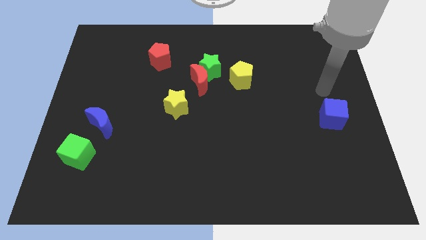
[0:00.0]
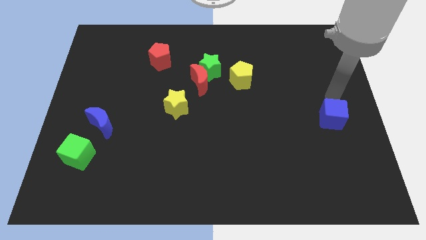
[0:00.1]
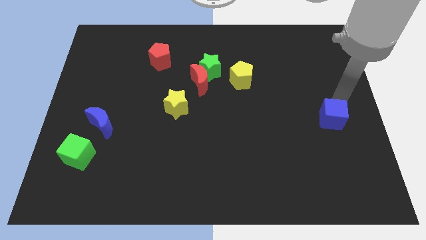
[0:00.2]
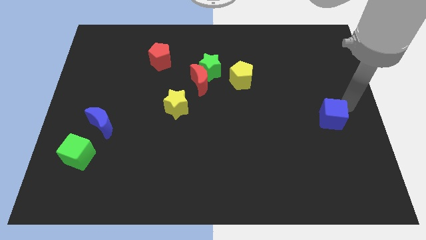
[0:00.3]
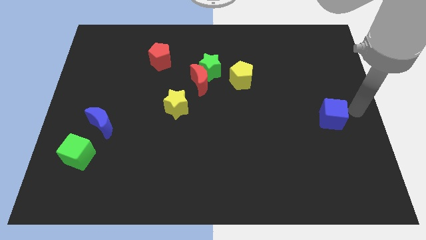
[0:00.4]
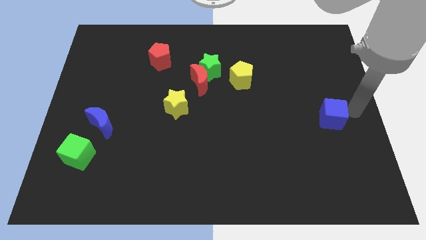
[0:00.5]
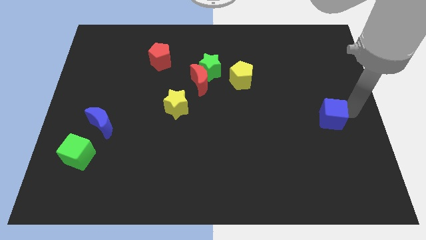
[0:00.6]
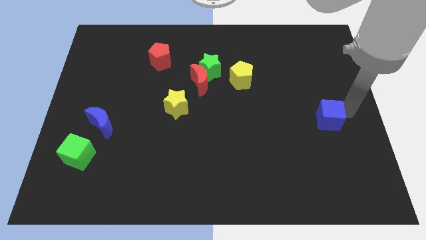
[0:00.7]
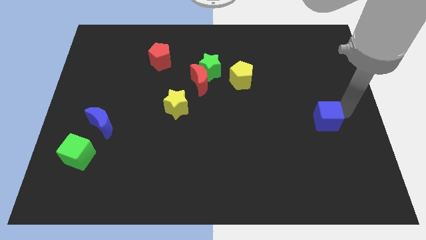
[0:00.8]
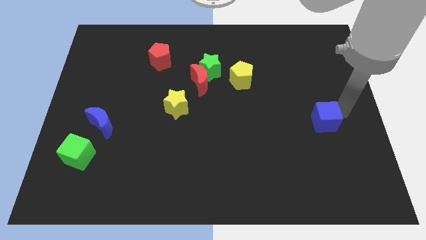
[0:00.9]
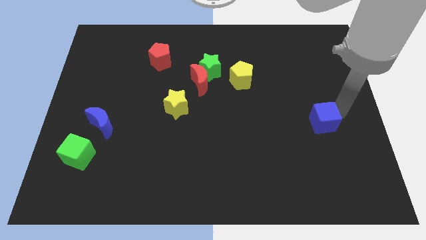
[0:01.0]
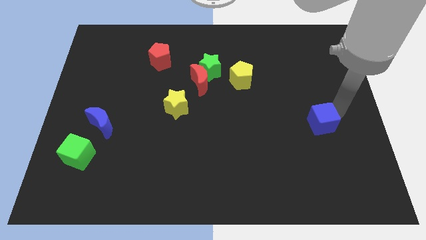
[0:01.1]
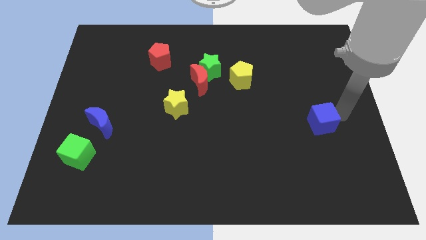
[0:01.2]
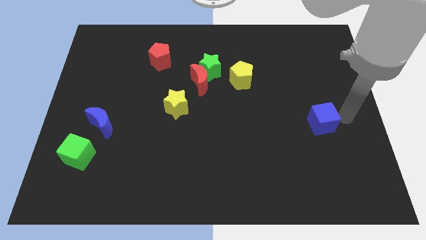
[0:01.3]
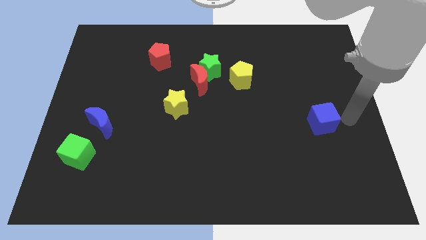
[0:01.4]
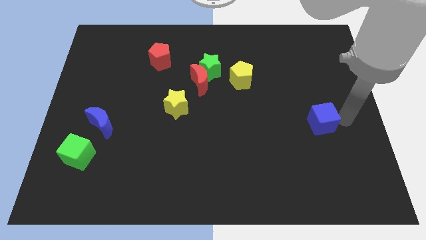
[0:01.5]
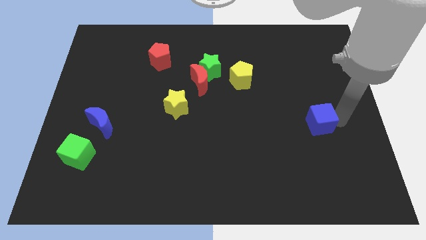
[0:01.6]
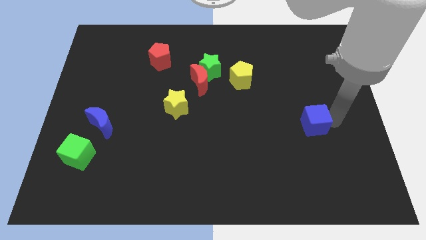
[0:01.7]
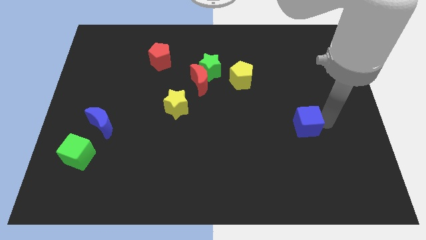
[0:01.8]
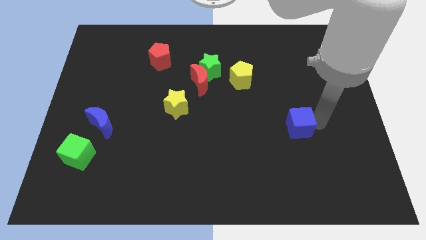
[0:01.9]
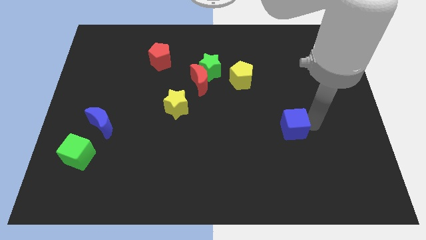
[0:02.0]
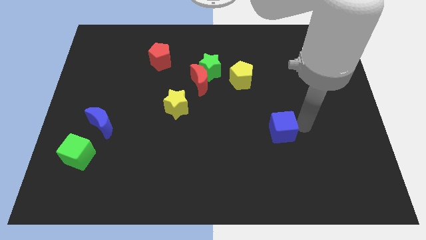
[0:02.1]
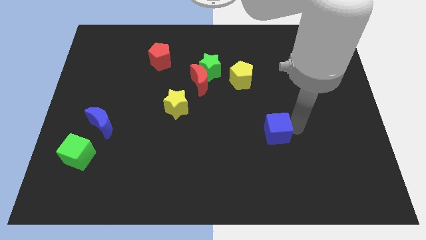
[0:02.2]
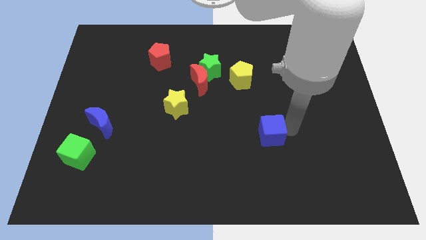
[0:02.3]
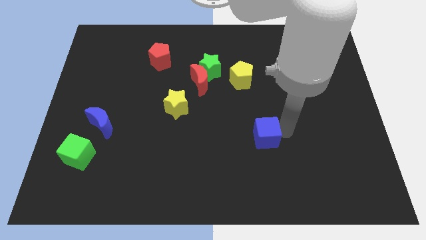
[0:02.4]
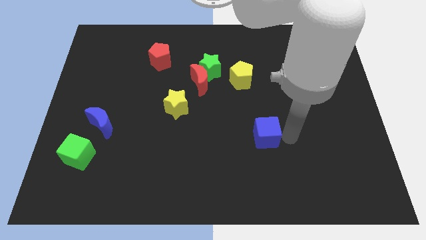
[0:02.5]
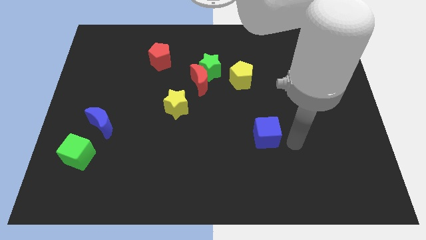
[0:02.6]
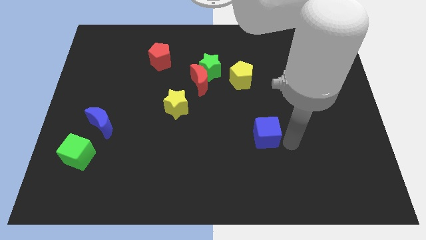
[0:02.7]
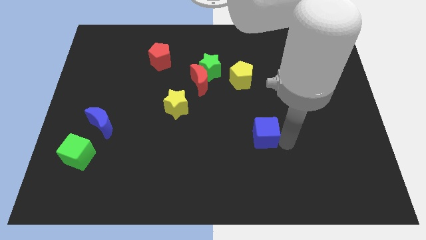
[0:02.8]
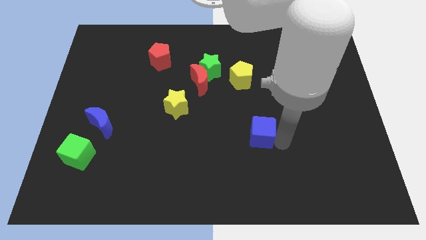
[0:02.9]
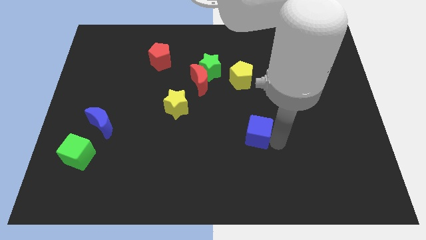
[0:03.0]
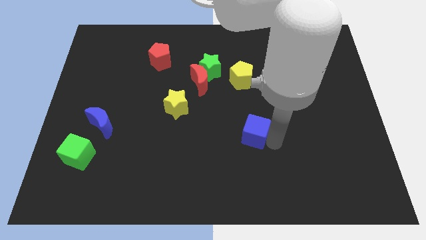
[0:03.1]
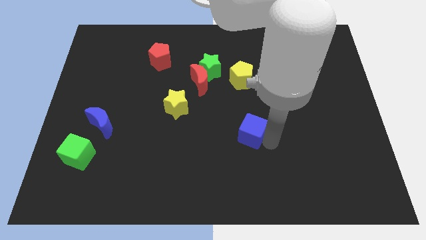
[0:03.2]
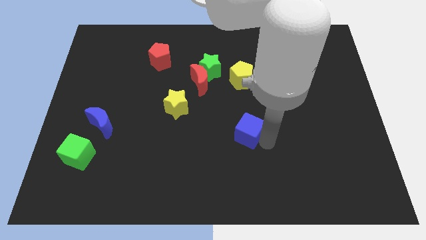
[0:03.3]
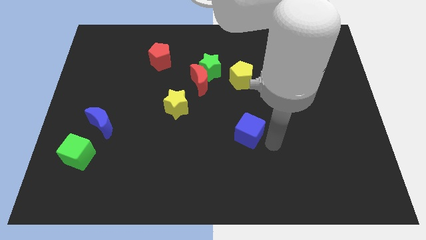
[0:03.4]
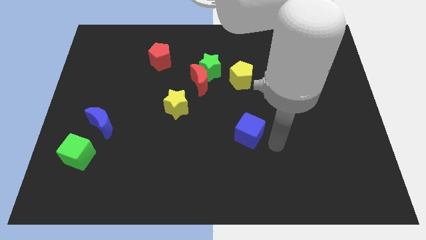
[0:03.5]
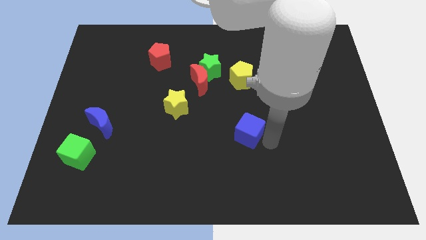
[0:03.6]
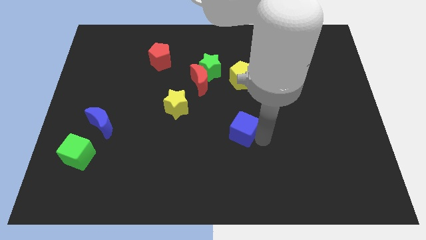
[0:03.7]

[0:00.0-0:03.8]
slide the blue cube to the left

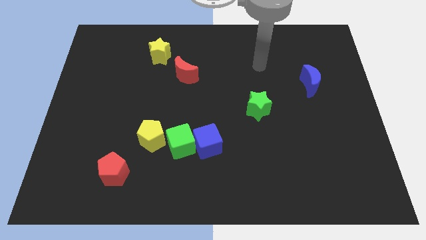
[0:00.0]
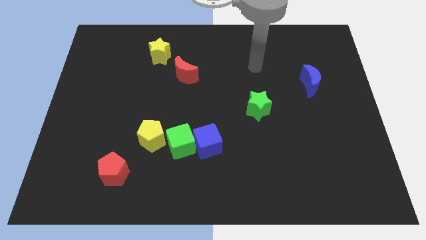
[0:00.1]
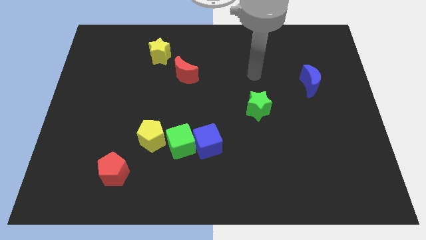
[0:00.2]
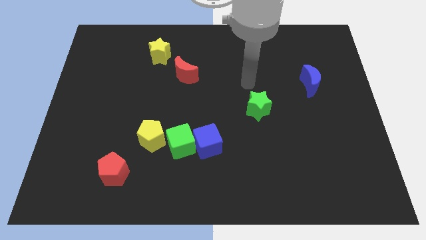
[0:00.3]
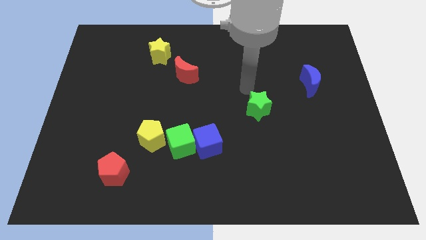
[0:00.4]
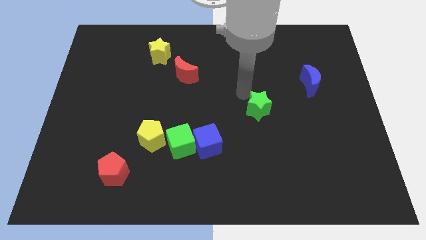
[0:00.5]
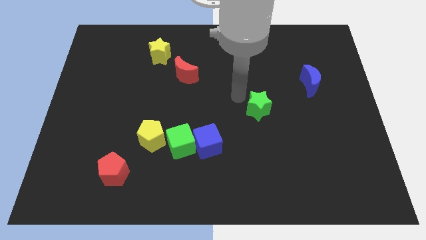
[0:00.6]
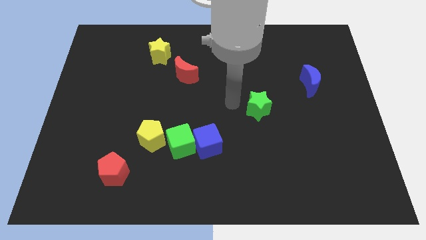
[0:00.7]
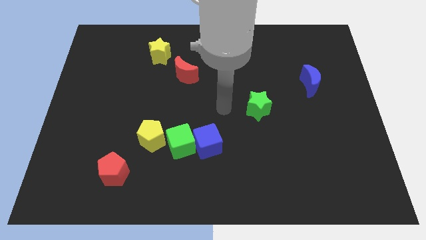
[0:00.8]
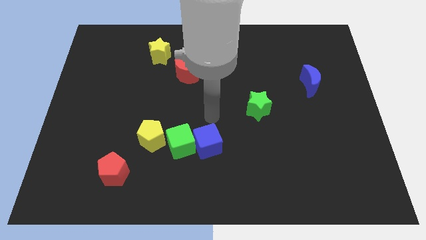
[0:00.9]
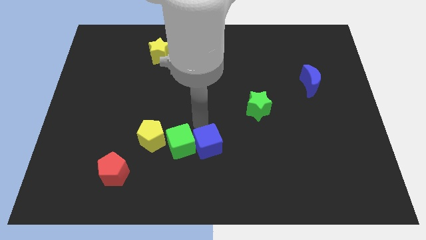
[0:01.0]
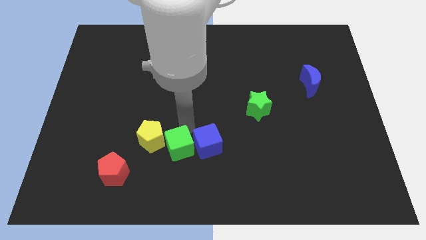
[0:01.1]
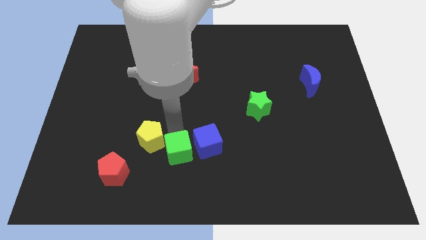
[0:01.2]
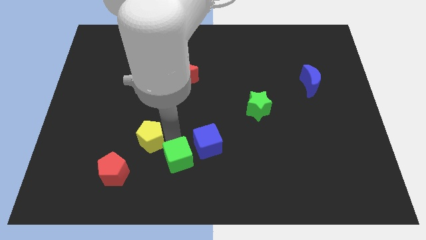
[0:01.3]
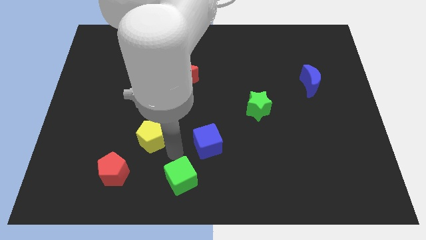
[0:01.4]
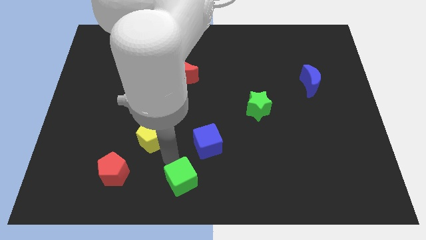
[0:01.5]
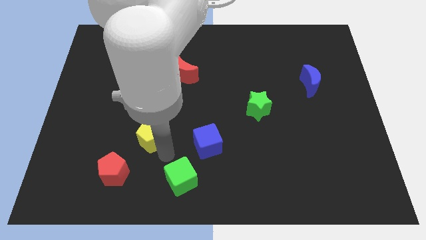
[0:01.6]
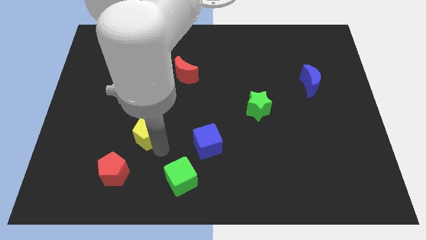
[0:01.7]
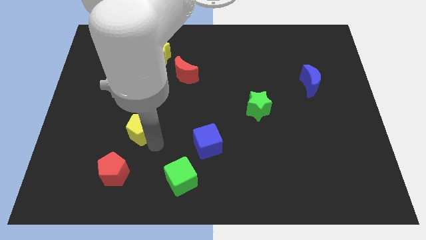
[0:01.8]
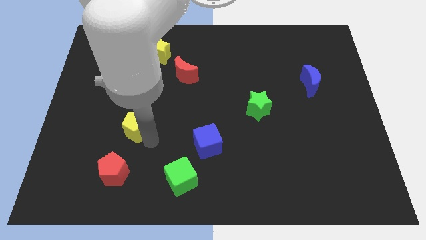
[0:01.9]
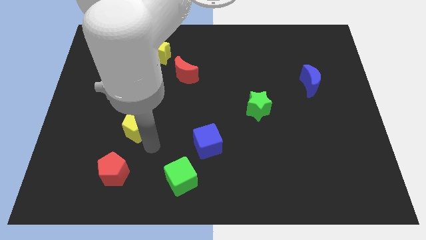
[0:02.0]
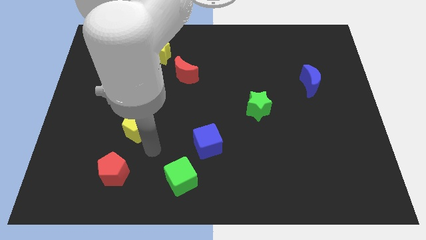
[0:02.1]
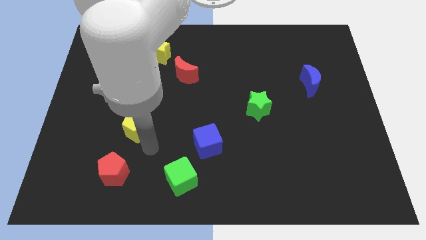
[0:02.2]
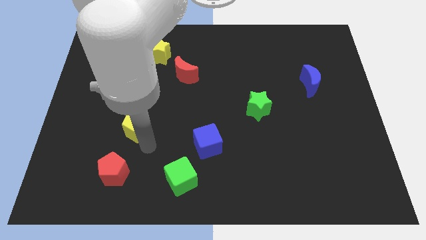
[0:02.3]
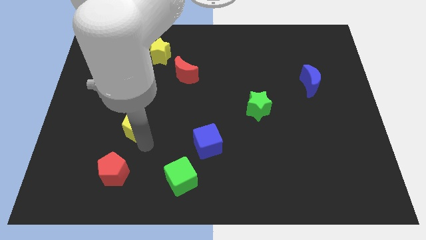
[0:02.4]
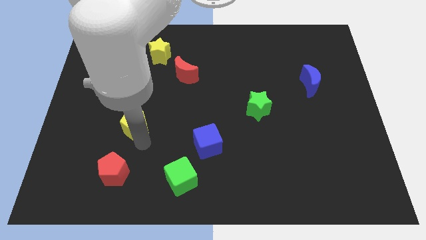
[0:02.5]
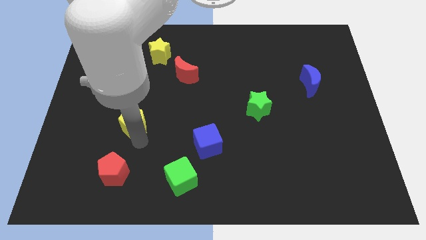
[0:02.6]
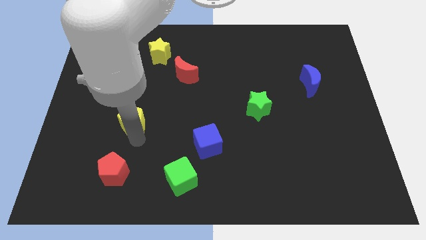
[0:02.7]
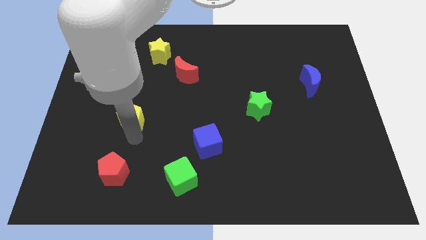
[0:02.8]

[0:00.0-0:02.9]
slightly slide the yellow pentagon up and left

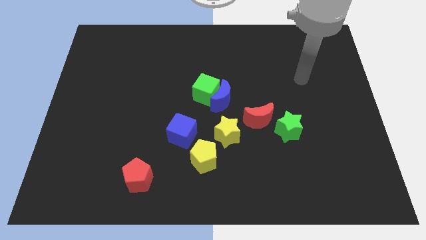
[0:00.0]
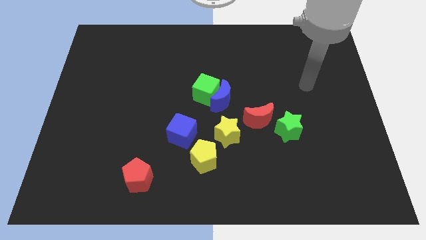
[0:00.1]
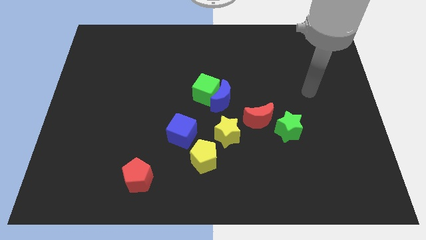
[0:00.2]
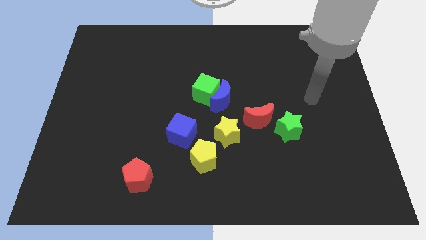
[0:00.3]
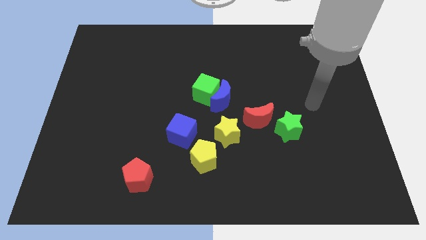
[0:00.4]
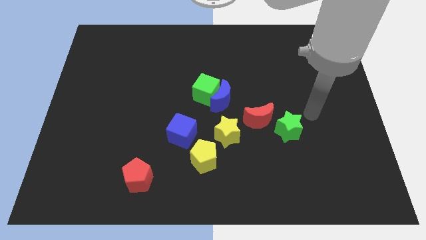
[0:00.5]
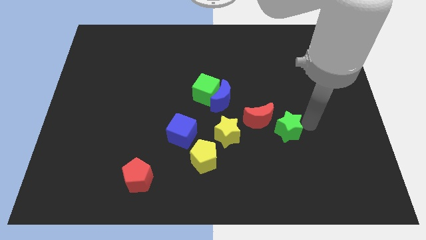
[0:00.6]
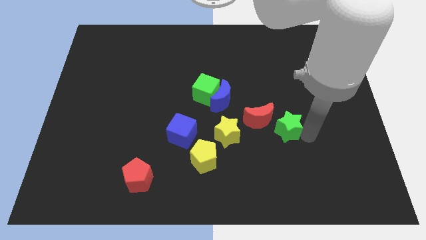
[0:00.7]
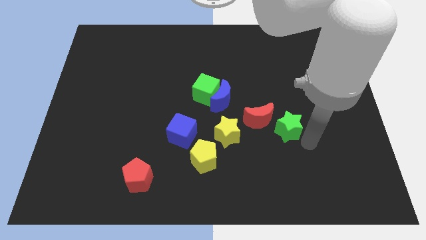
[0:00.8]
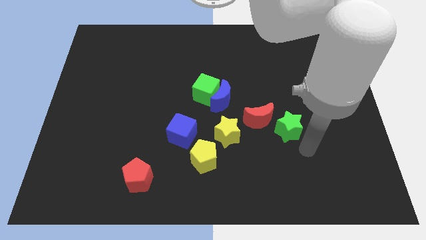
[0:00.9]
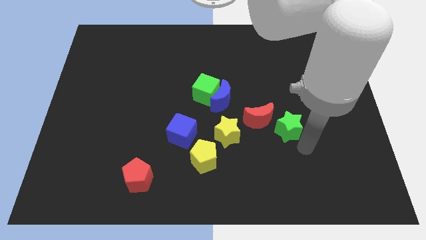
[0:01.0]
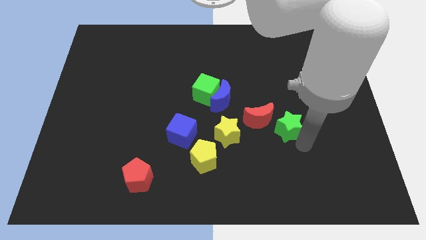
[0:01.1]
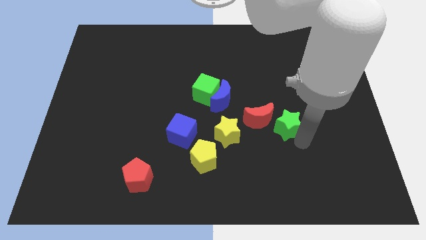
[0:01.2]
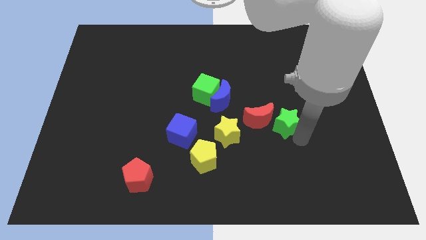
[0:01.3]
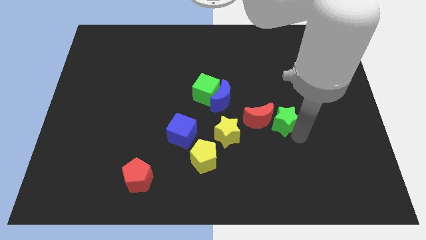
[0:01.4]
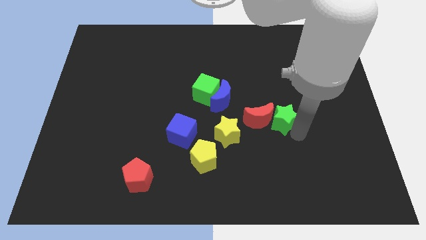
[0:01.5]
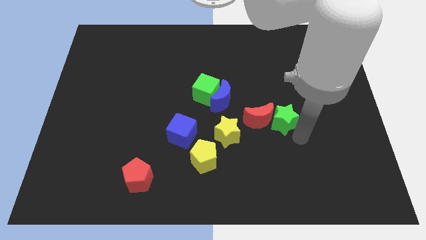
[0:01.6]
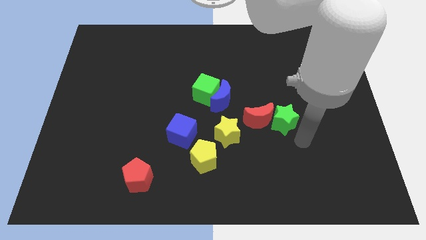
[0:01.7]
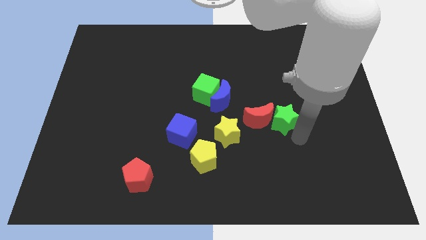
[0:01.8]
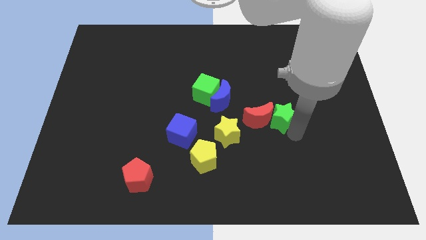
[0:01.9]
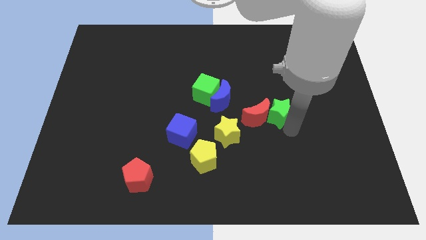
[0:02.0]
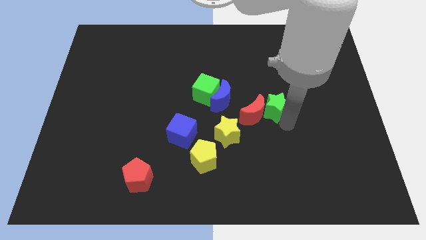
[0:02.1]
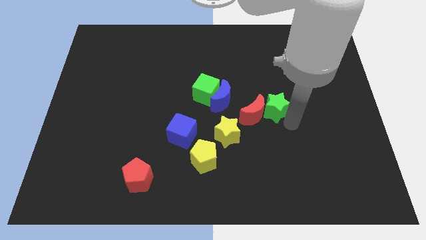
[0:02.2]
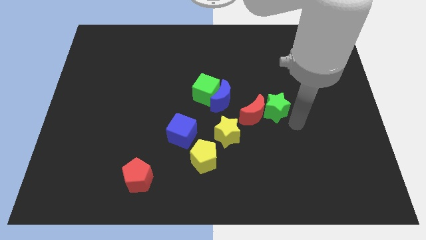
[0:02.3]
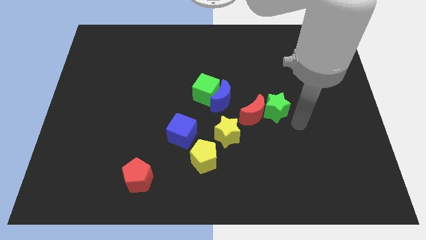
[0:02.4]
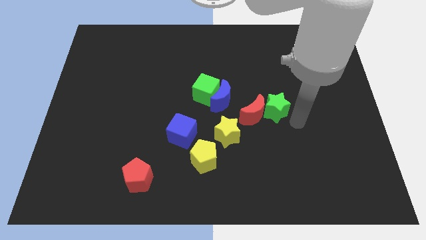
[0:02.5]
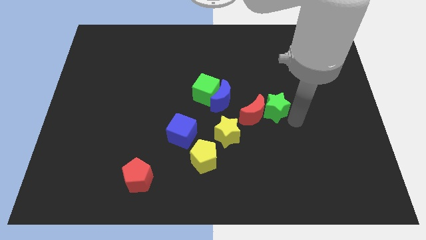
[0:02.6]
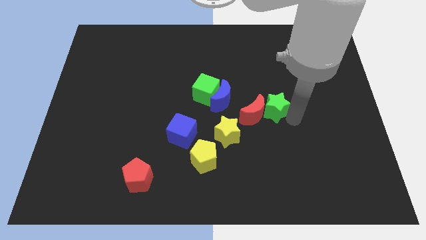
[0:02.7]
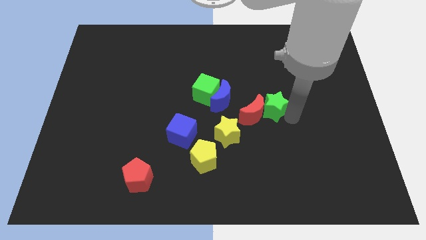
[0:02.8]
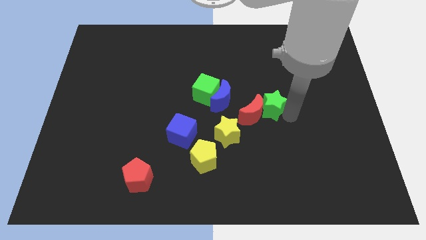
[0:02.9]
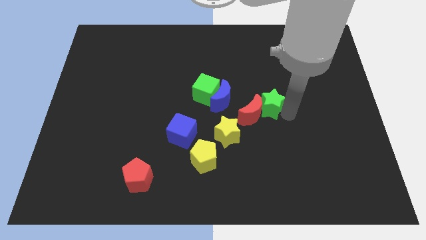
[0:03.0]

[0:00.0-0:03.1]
push the green star a bit upwards and left diagonally
